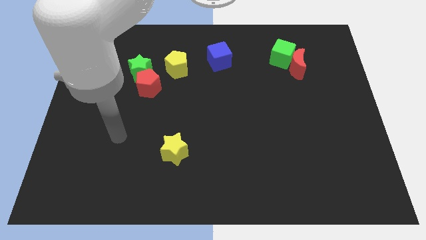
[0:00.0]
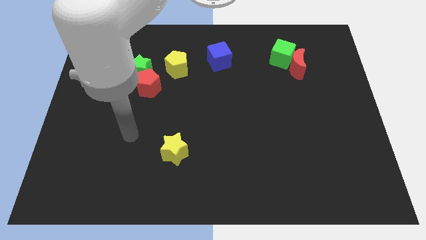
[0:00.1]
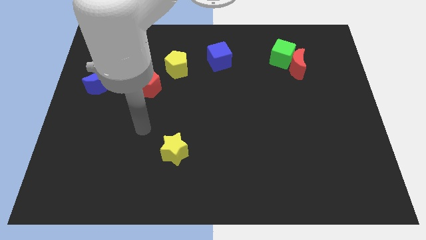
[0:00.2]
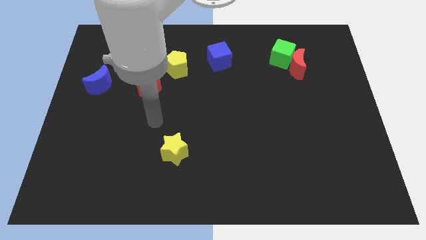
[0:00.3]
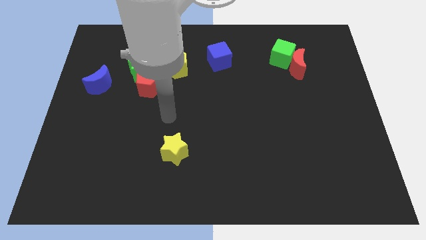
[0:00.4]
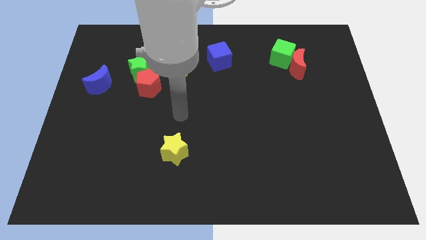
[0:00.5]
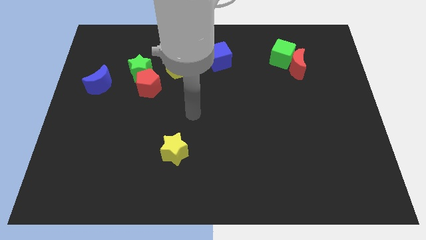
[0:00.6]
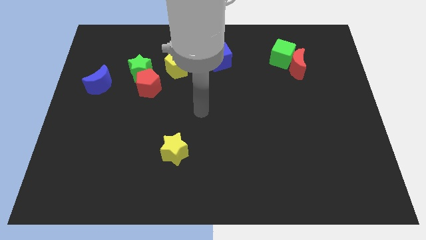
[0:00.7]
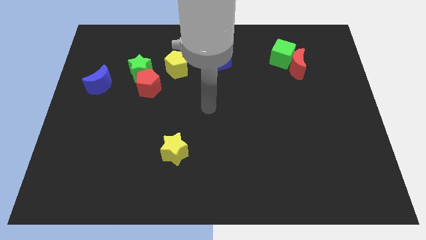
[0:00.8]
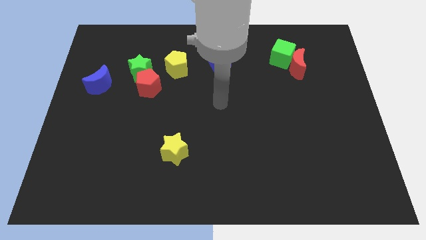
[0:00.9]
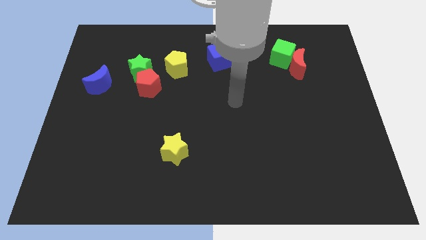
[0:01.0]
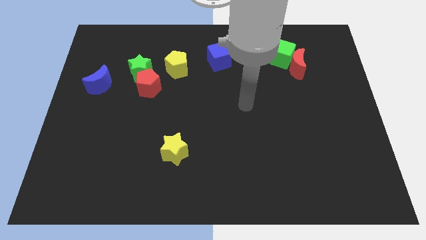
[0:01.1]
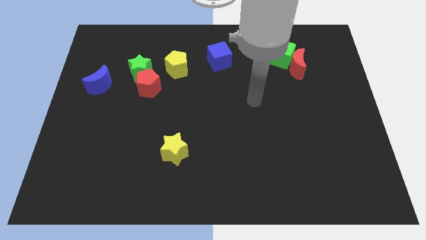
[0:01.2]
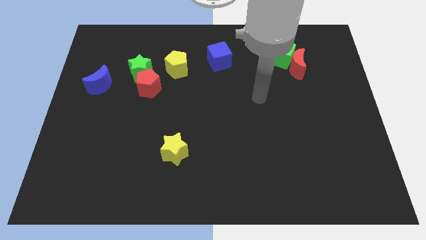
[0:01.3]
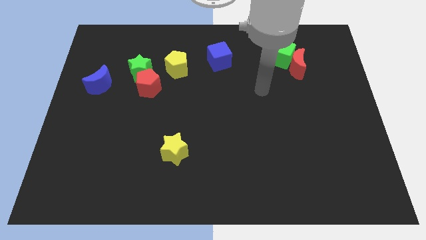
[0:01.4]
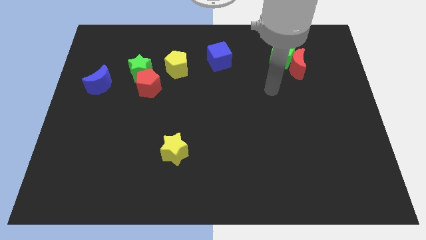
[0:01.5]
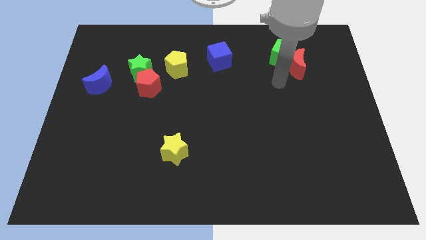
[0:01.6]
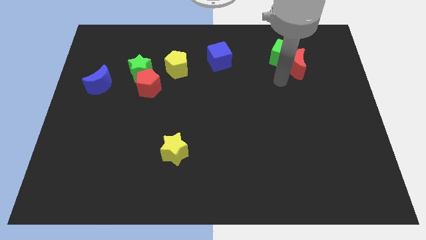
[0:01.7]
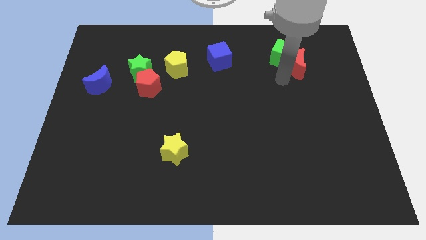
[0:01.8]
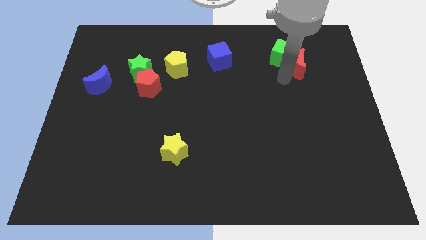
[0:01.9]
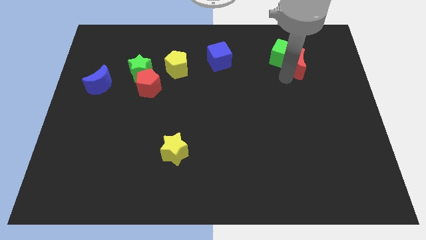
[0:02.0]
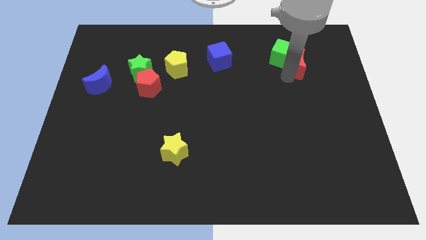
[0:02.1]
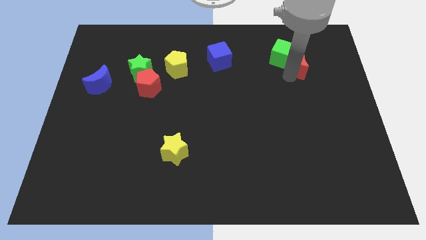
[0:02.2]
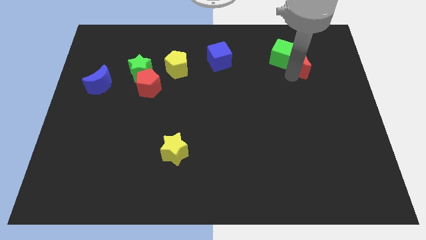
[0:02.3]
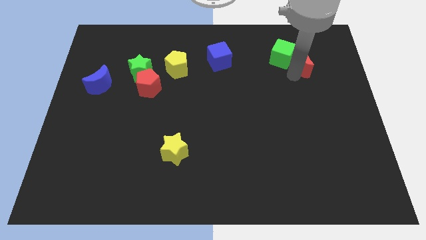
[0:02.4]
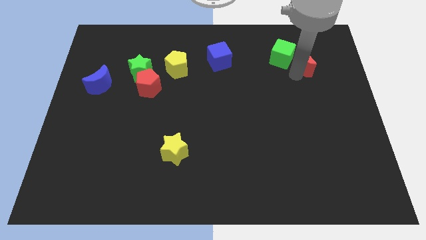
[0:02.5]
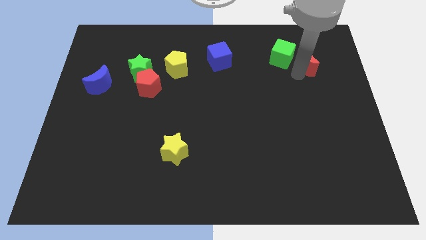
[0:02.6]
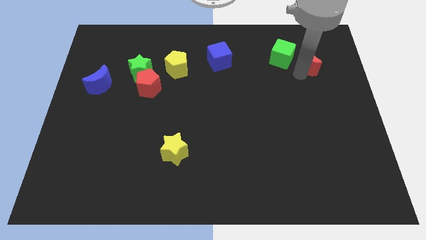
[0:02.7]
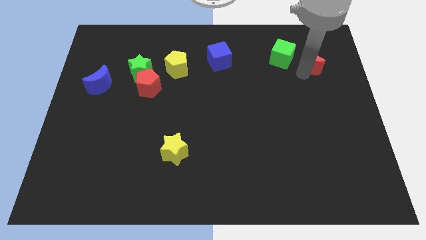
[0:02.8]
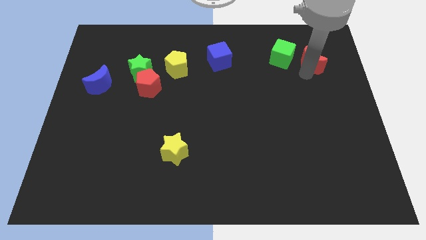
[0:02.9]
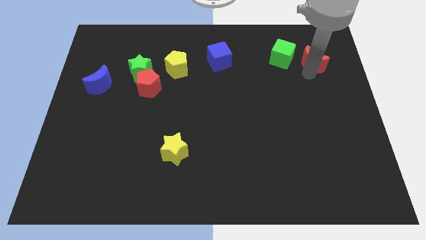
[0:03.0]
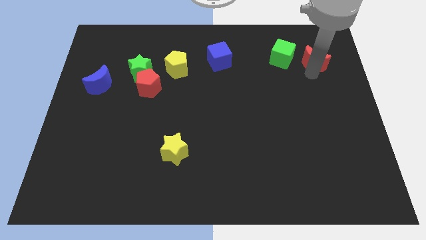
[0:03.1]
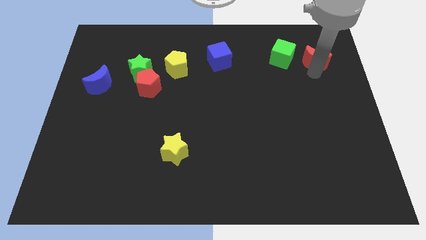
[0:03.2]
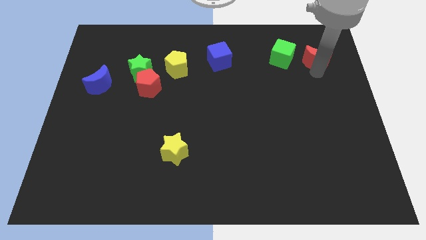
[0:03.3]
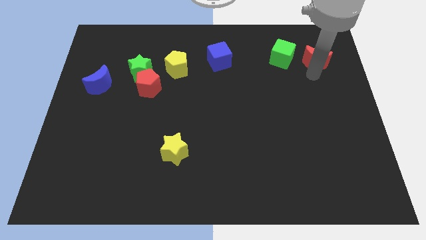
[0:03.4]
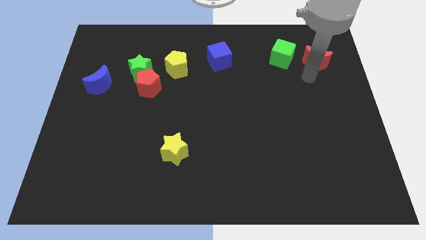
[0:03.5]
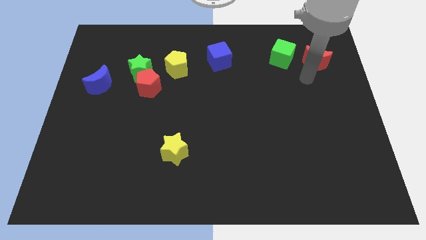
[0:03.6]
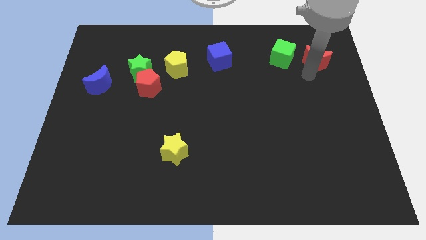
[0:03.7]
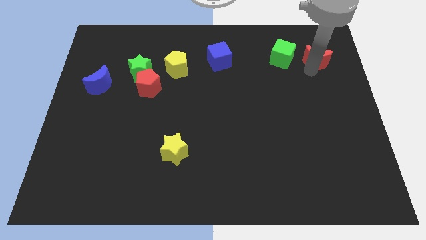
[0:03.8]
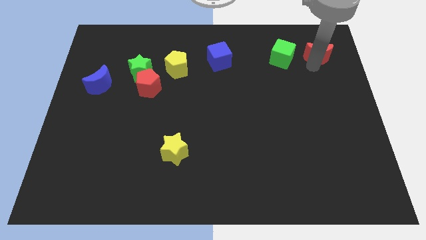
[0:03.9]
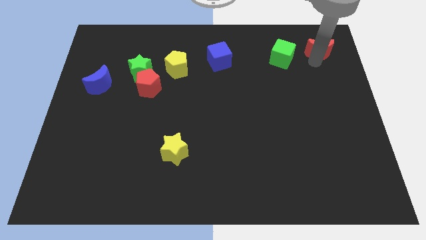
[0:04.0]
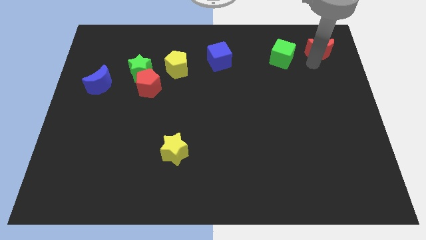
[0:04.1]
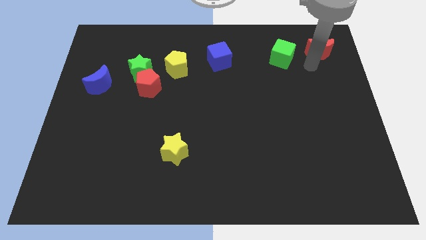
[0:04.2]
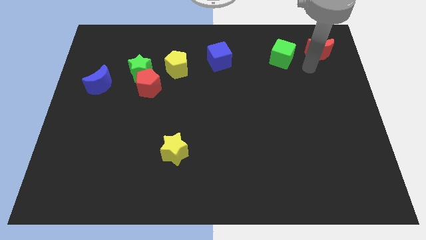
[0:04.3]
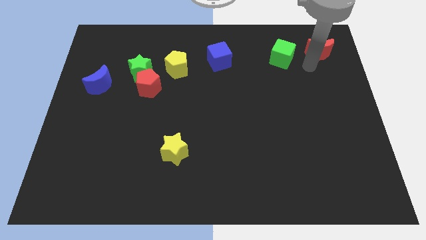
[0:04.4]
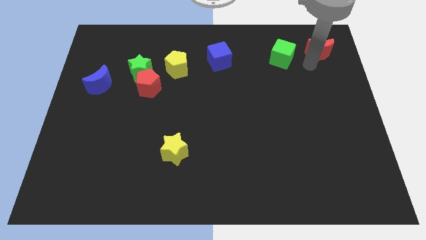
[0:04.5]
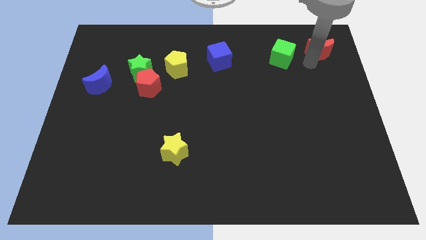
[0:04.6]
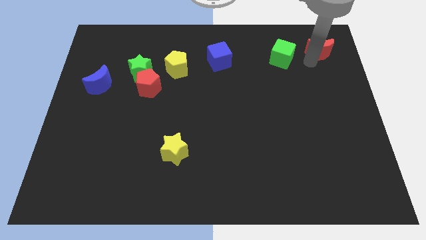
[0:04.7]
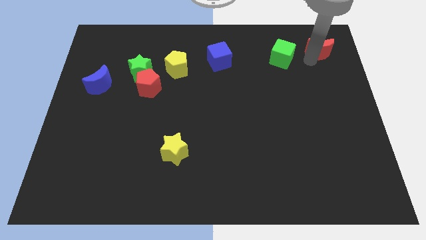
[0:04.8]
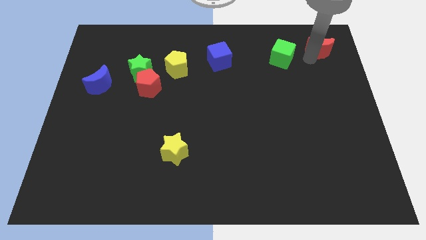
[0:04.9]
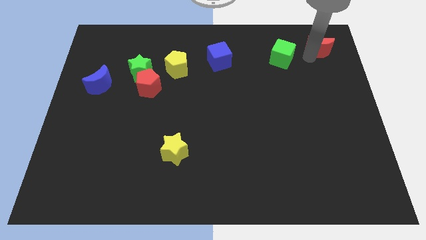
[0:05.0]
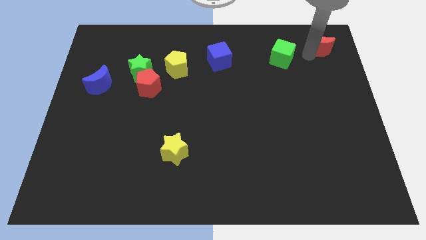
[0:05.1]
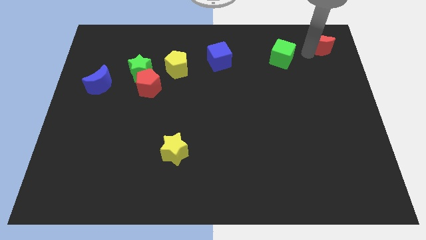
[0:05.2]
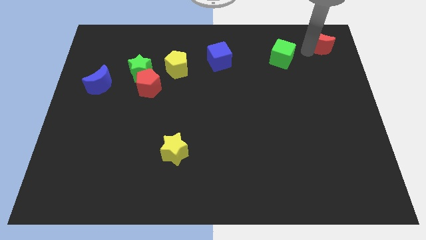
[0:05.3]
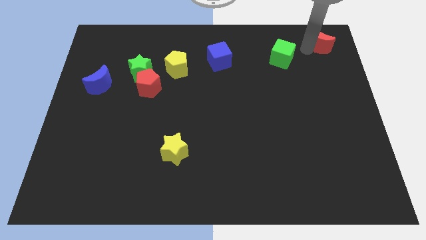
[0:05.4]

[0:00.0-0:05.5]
slide the red moon to the top right
